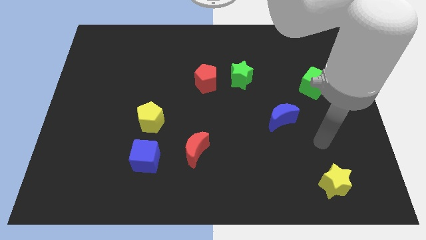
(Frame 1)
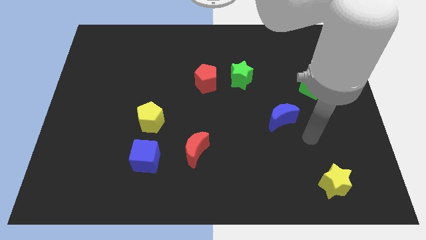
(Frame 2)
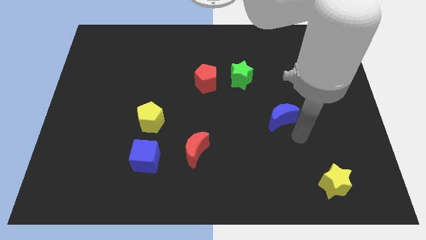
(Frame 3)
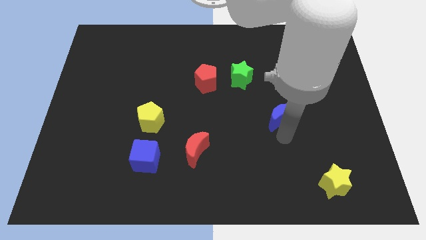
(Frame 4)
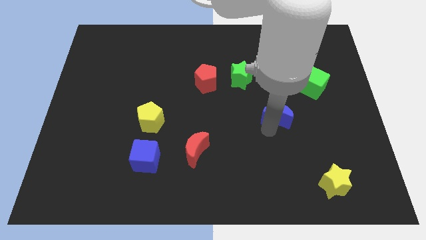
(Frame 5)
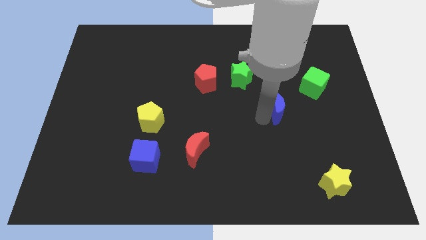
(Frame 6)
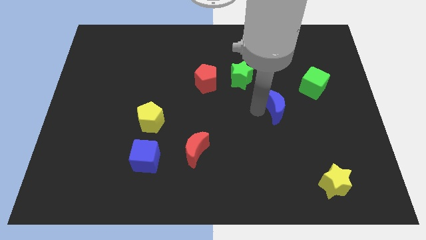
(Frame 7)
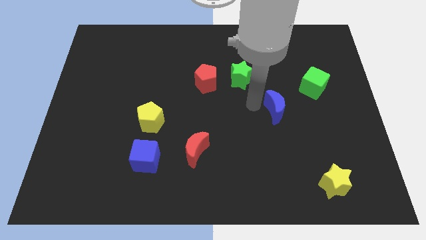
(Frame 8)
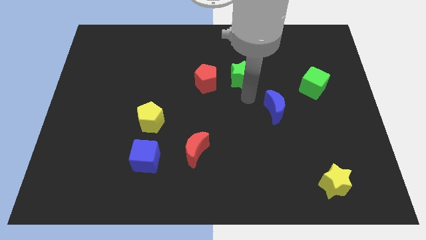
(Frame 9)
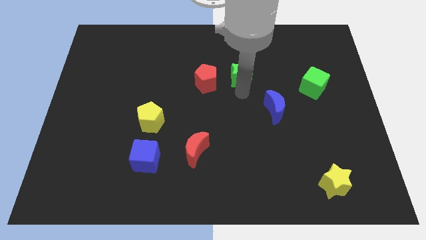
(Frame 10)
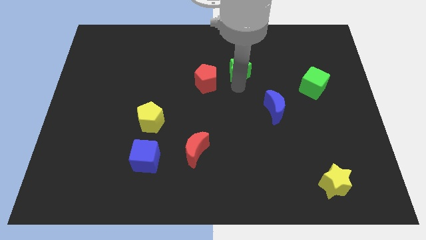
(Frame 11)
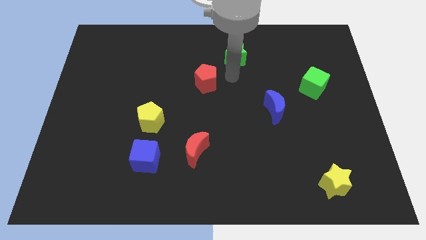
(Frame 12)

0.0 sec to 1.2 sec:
move the red pentagon away from the green star

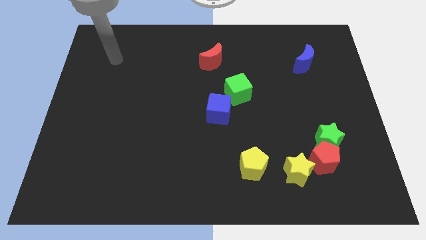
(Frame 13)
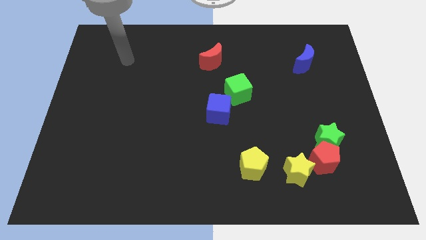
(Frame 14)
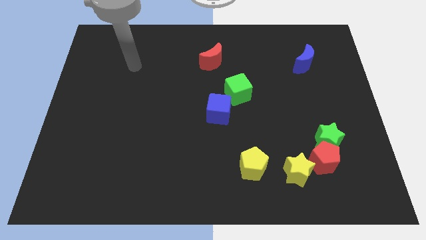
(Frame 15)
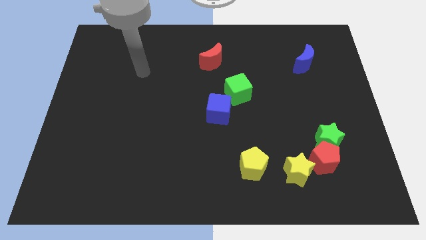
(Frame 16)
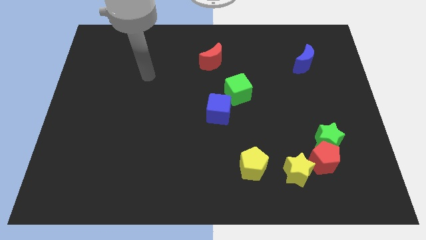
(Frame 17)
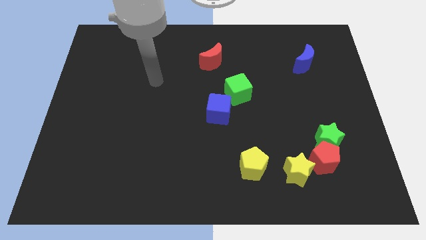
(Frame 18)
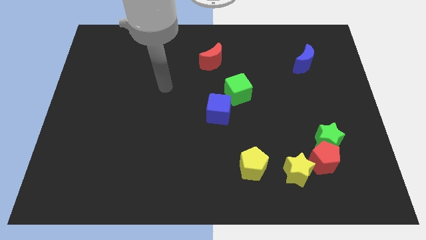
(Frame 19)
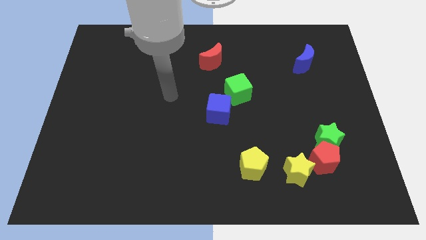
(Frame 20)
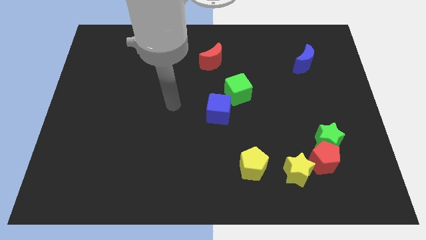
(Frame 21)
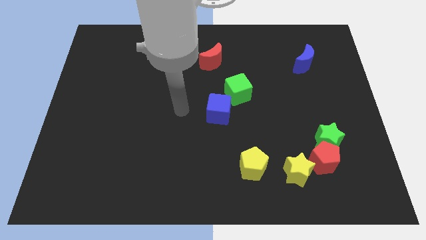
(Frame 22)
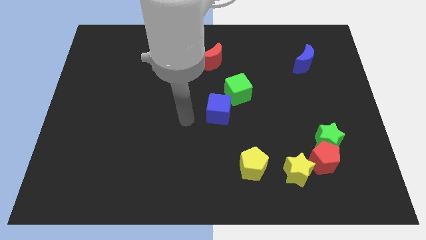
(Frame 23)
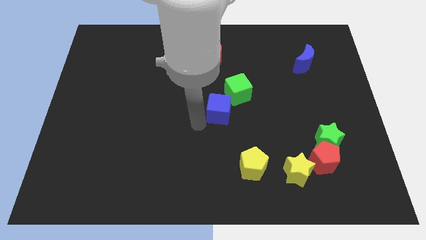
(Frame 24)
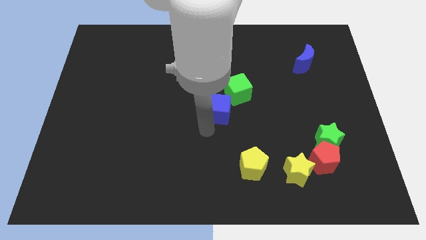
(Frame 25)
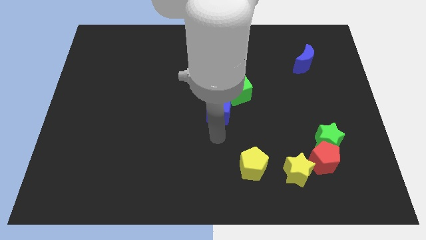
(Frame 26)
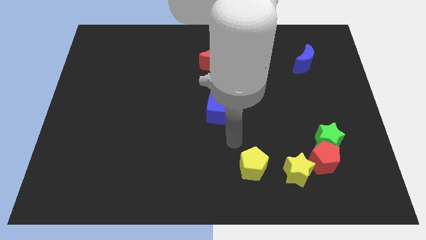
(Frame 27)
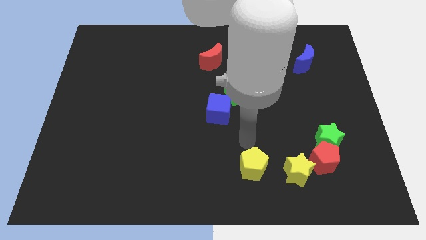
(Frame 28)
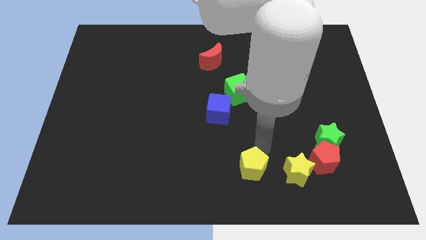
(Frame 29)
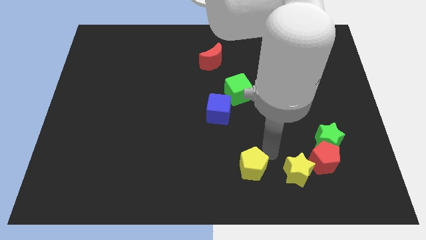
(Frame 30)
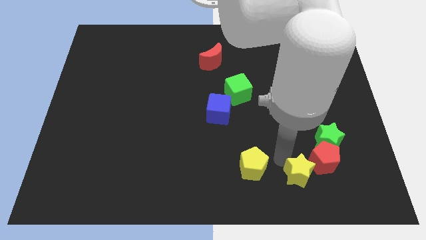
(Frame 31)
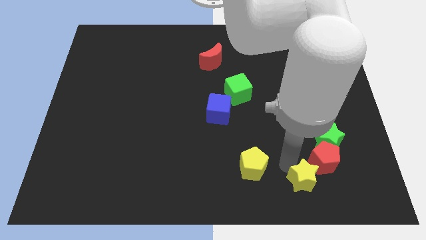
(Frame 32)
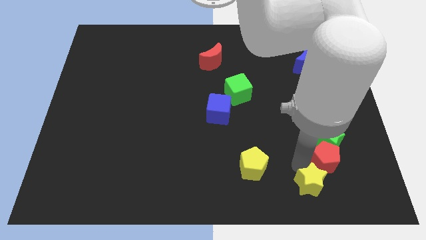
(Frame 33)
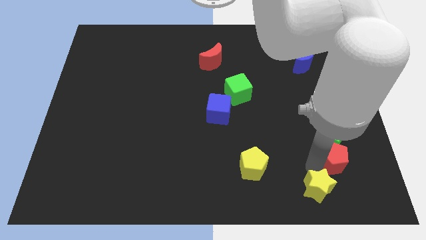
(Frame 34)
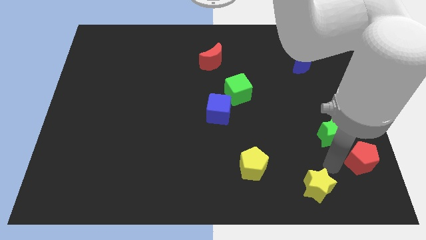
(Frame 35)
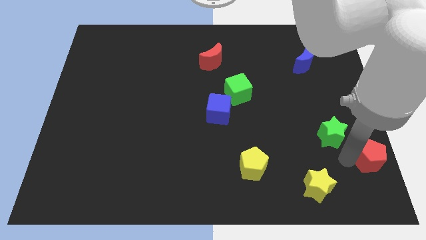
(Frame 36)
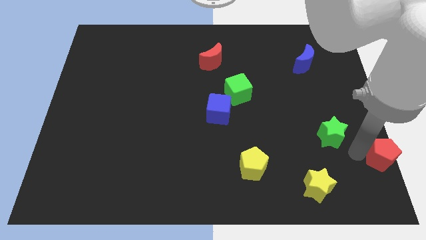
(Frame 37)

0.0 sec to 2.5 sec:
separate the green star from the red pentagon

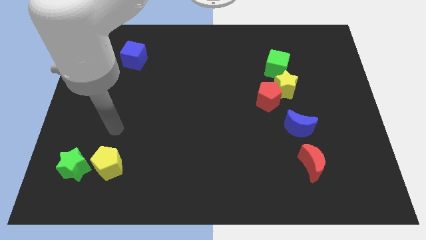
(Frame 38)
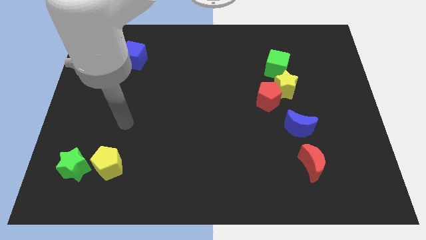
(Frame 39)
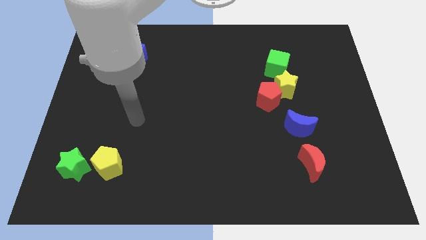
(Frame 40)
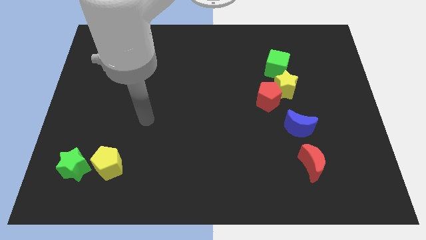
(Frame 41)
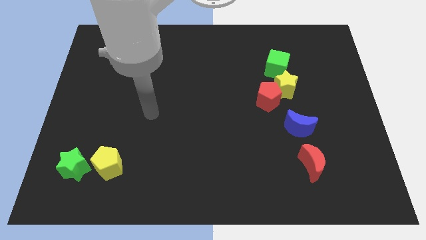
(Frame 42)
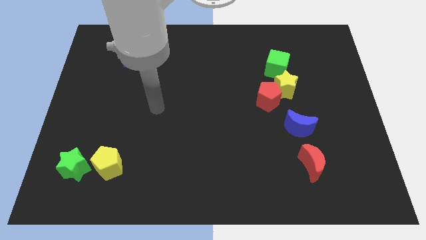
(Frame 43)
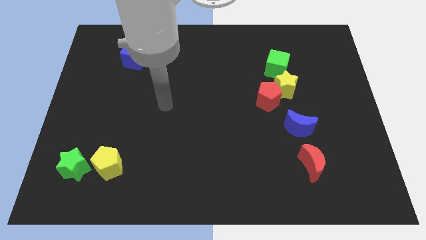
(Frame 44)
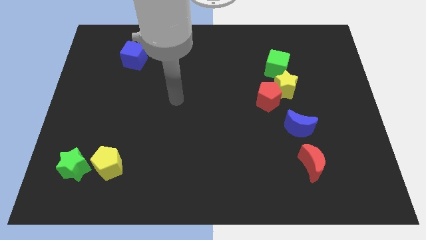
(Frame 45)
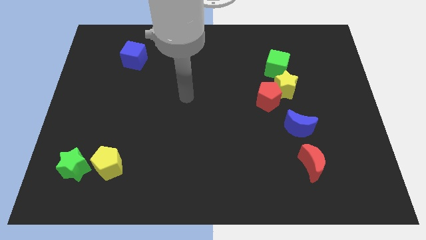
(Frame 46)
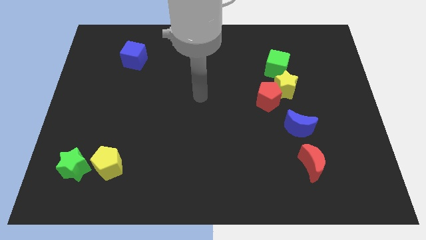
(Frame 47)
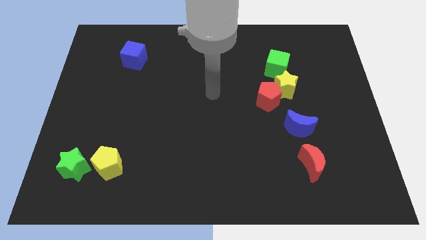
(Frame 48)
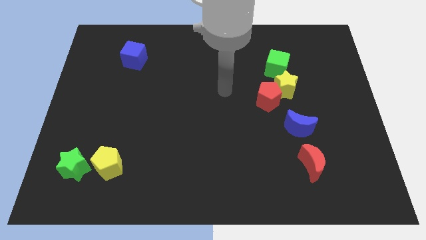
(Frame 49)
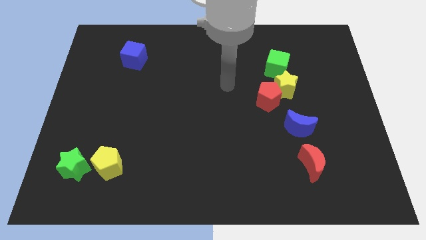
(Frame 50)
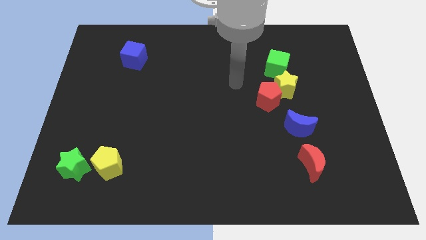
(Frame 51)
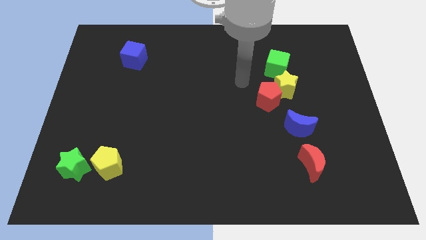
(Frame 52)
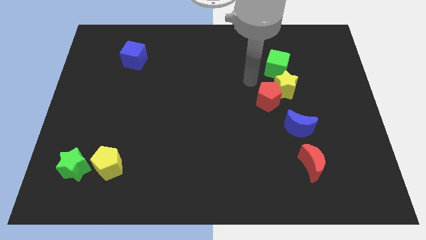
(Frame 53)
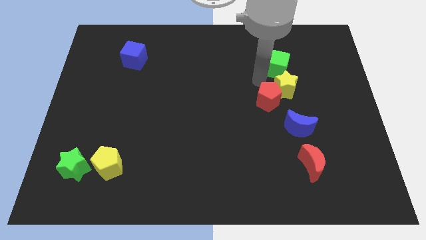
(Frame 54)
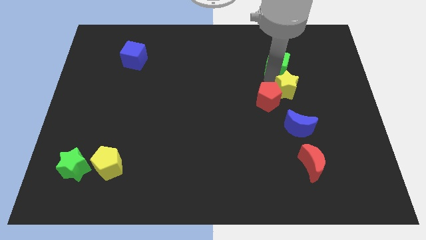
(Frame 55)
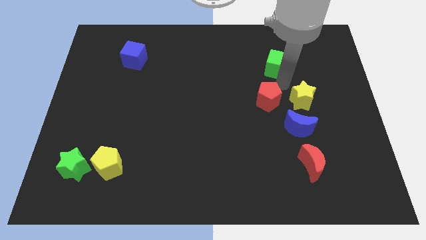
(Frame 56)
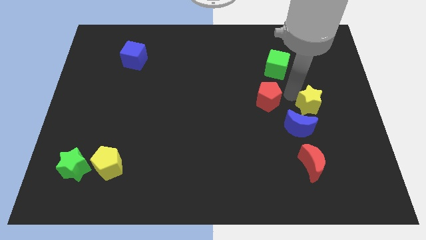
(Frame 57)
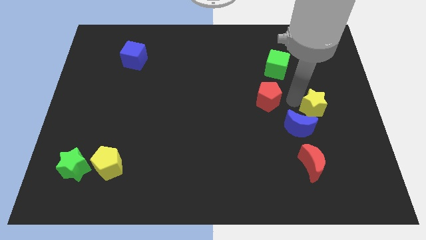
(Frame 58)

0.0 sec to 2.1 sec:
move the red pentagon away from the yellow star

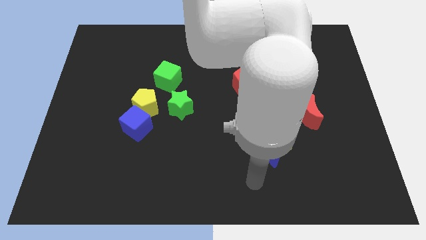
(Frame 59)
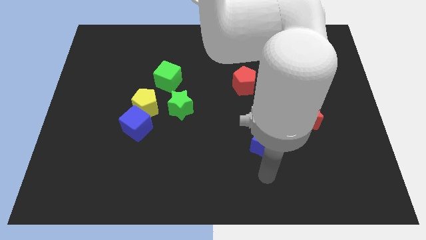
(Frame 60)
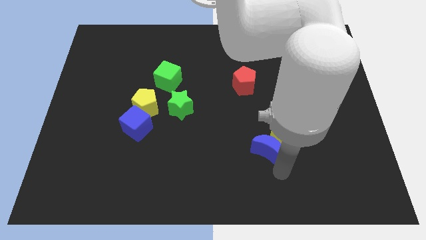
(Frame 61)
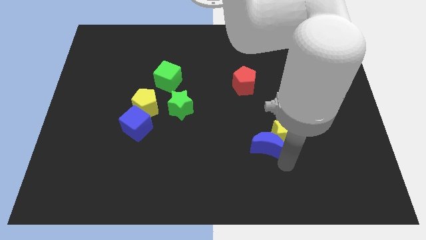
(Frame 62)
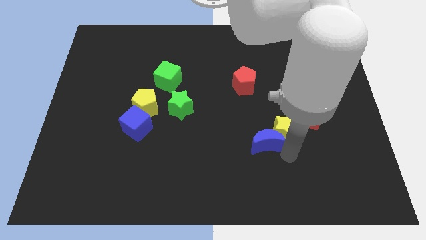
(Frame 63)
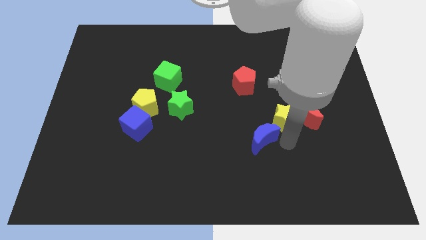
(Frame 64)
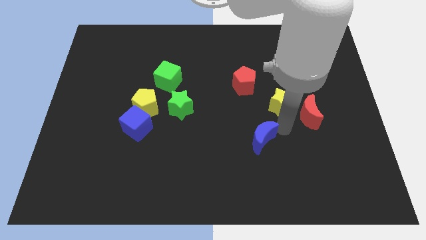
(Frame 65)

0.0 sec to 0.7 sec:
move the blue moon away from the yellow star

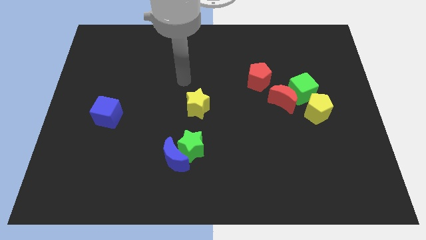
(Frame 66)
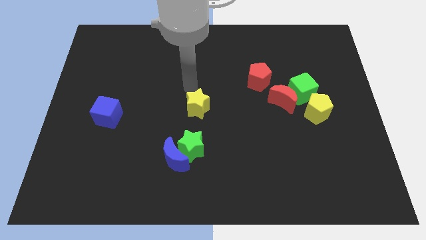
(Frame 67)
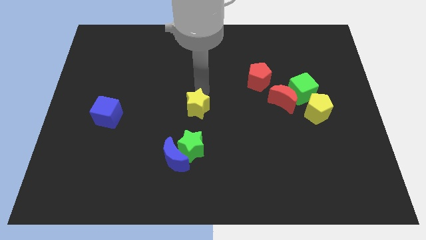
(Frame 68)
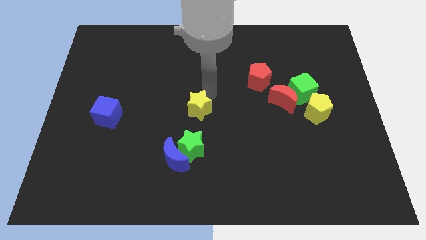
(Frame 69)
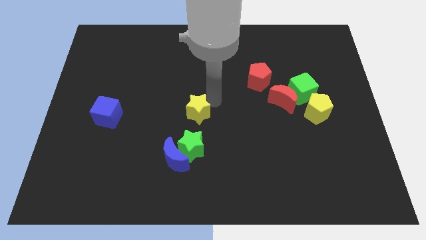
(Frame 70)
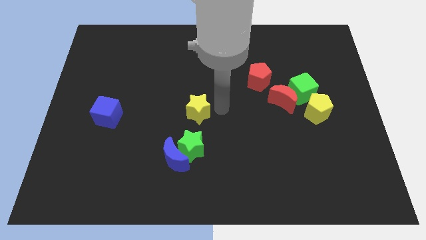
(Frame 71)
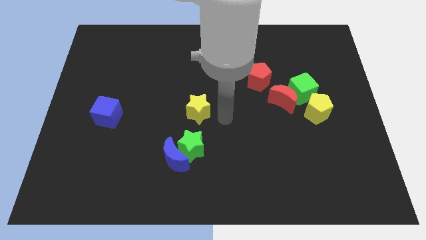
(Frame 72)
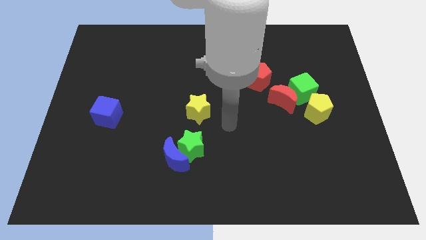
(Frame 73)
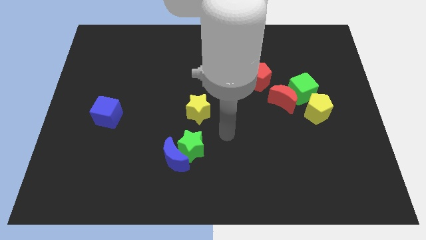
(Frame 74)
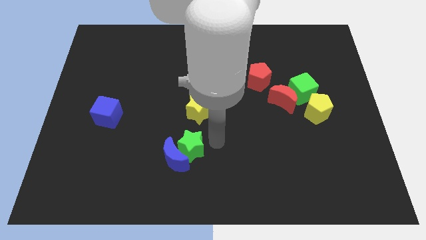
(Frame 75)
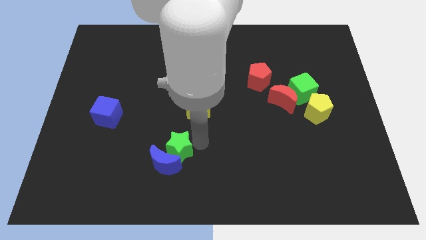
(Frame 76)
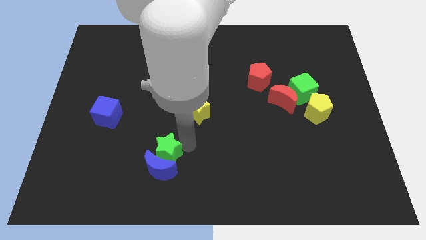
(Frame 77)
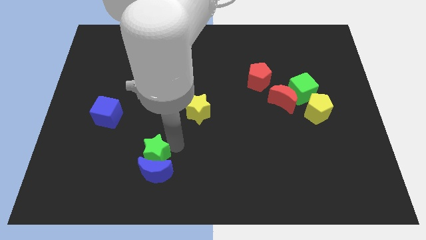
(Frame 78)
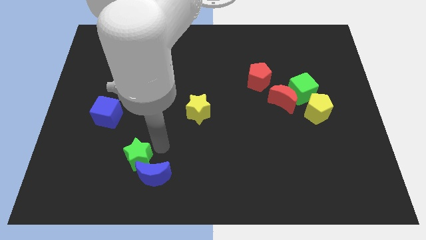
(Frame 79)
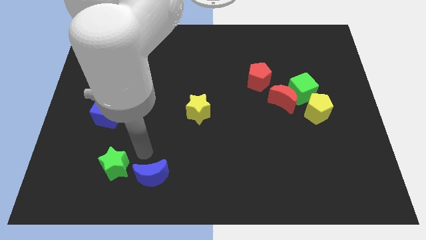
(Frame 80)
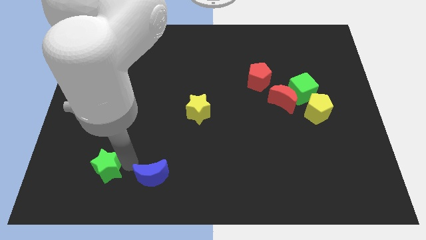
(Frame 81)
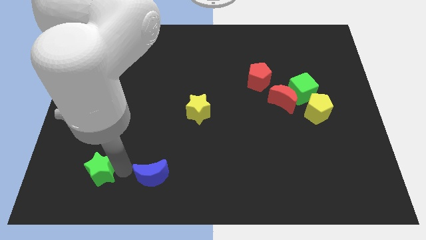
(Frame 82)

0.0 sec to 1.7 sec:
separate the blue moon from the green star

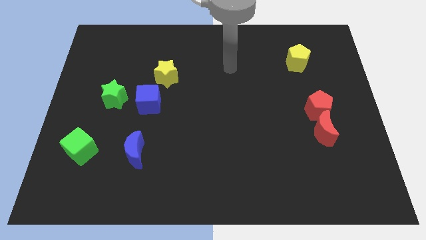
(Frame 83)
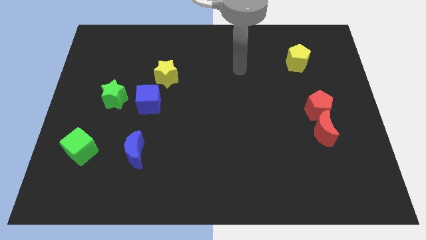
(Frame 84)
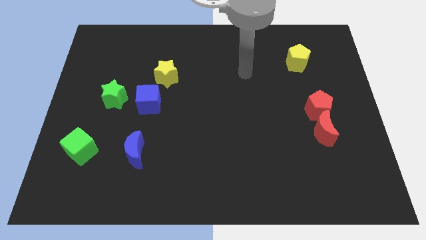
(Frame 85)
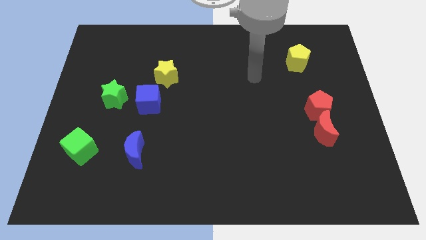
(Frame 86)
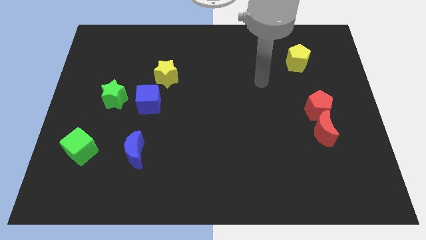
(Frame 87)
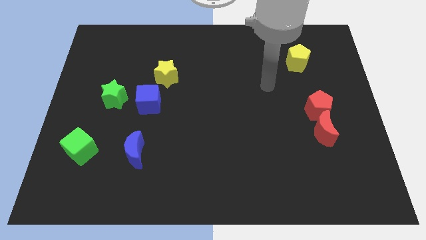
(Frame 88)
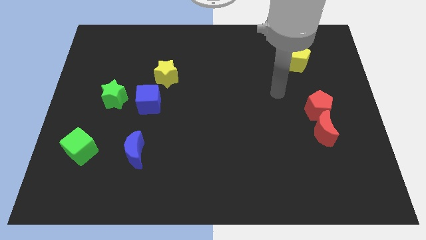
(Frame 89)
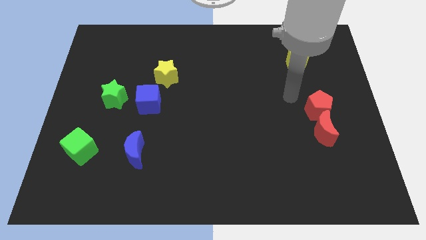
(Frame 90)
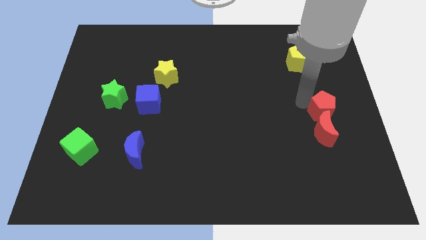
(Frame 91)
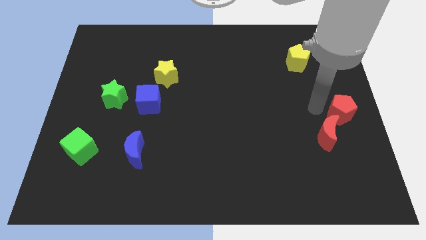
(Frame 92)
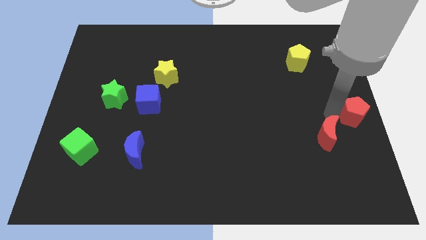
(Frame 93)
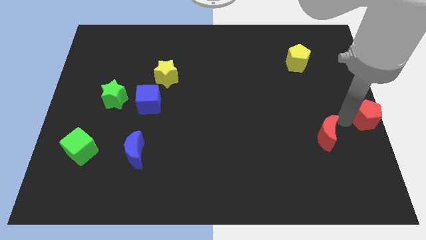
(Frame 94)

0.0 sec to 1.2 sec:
pull the red moon apart from the red pentagon
